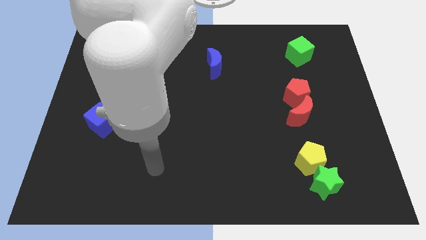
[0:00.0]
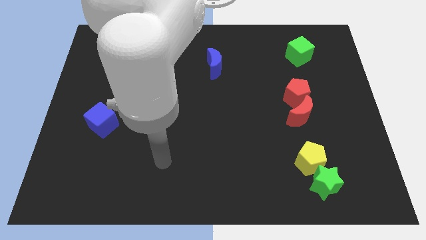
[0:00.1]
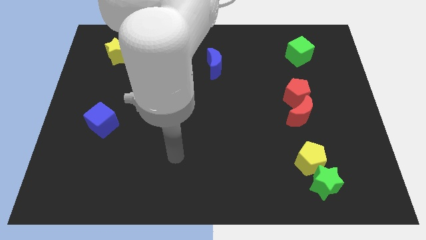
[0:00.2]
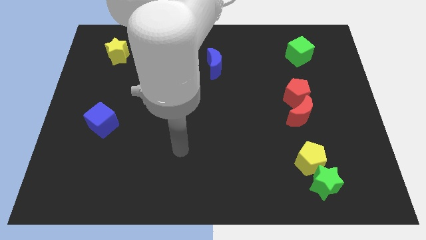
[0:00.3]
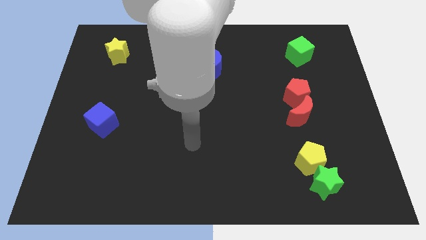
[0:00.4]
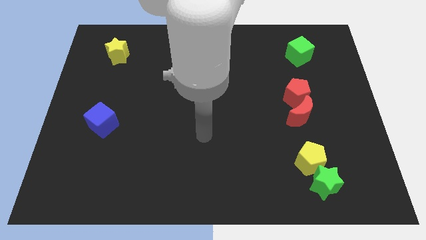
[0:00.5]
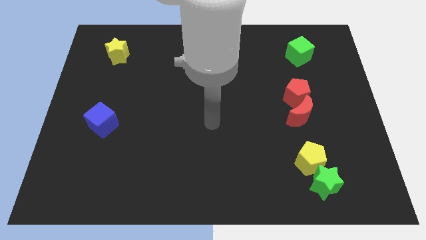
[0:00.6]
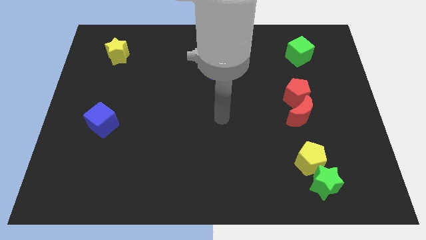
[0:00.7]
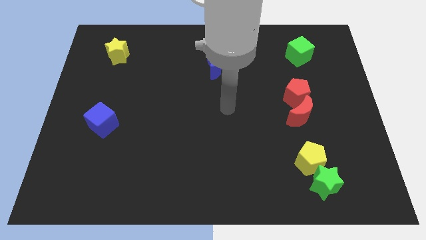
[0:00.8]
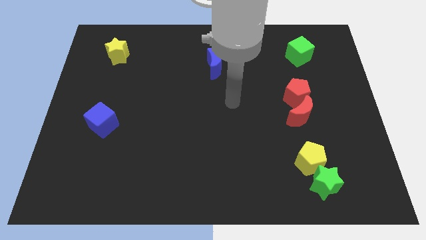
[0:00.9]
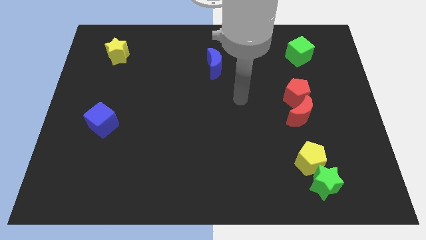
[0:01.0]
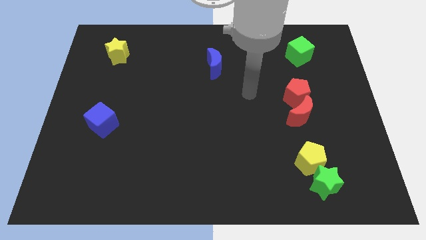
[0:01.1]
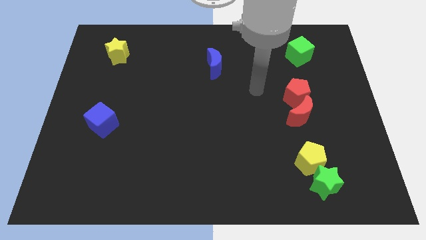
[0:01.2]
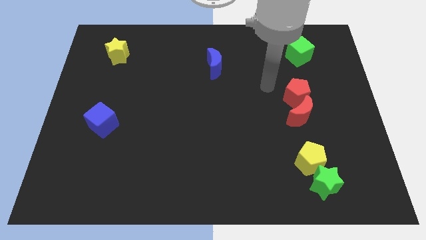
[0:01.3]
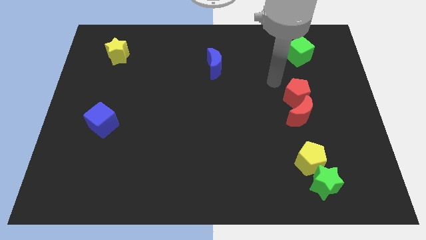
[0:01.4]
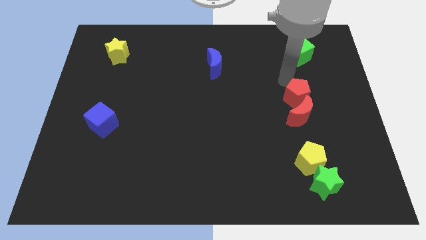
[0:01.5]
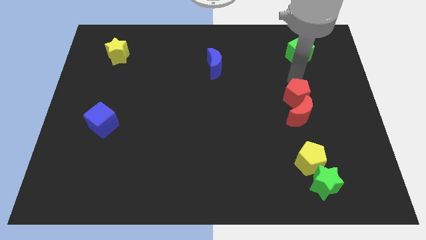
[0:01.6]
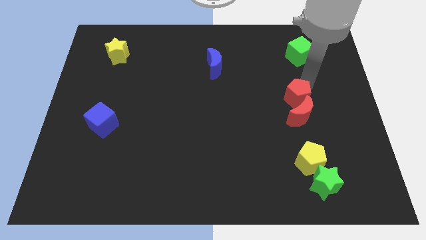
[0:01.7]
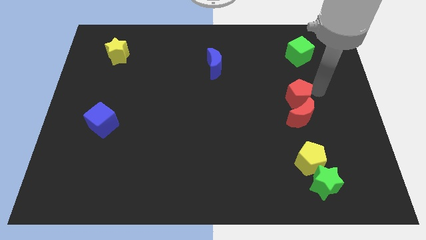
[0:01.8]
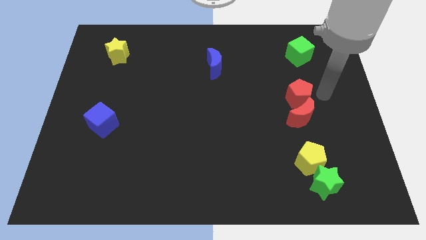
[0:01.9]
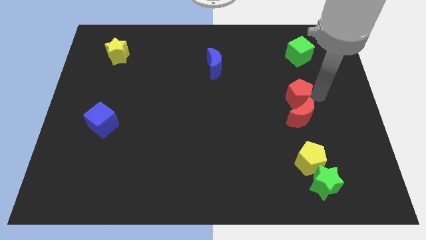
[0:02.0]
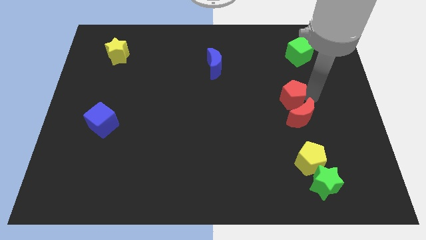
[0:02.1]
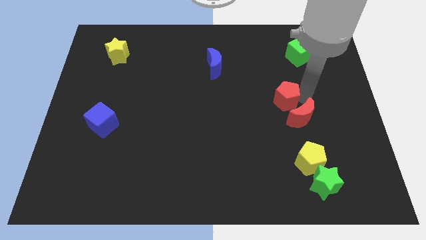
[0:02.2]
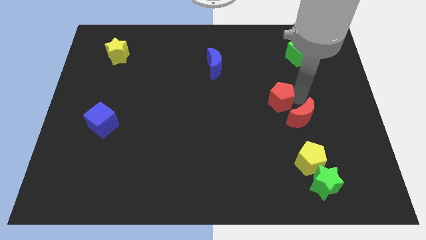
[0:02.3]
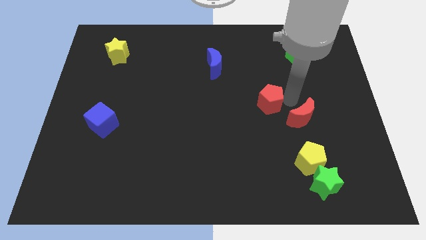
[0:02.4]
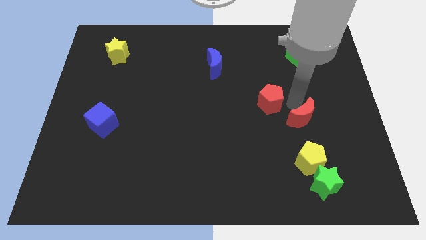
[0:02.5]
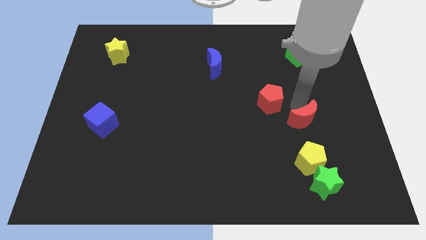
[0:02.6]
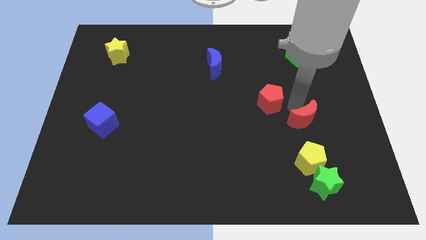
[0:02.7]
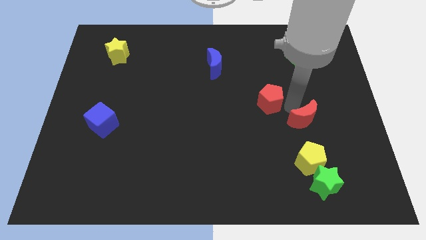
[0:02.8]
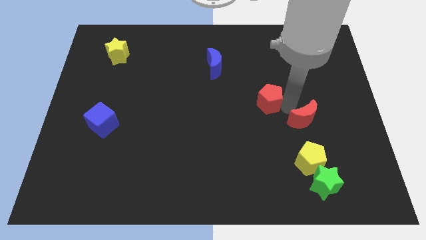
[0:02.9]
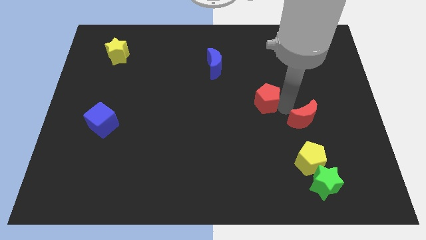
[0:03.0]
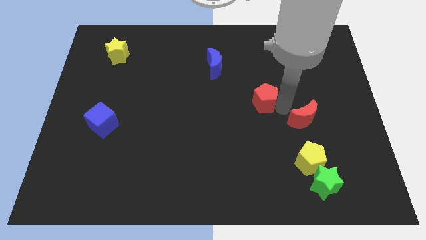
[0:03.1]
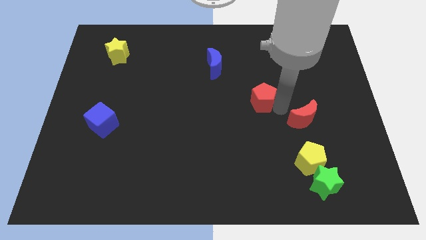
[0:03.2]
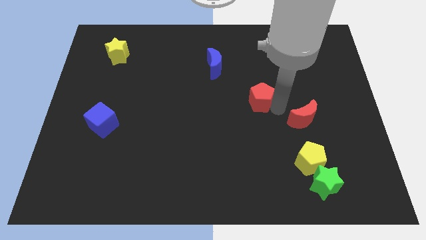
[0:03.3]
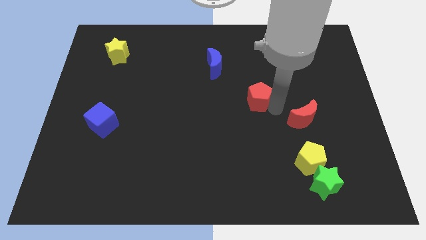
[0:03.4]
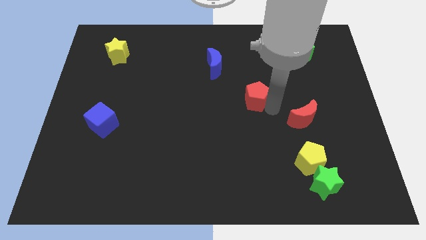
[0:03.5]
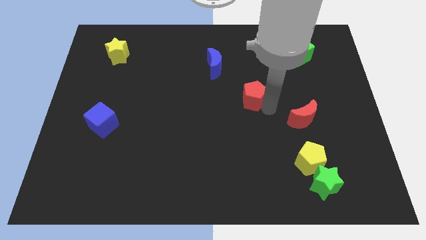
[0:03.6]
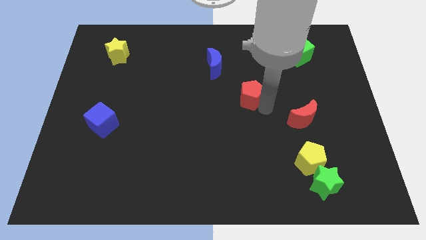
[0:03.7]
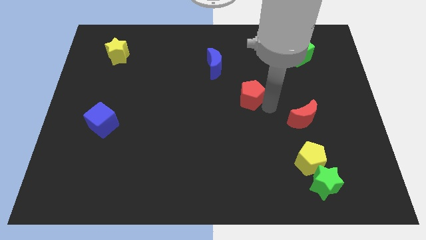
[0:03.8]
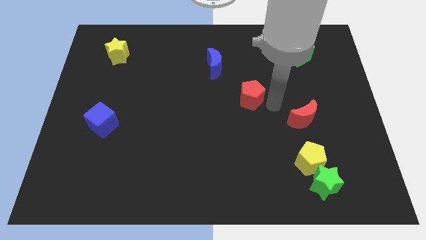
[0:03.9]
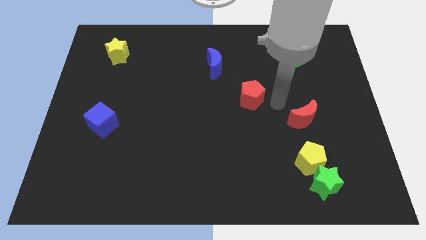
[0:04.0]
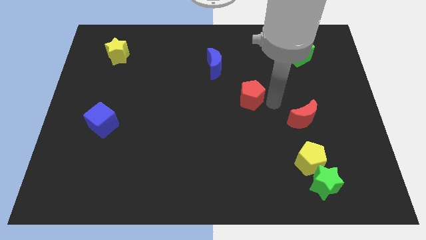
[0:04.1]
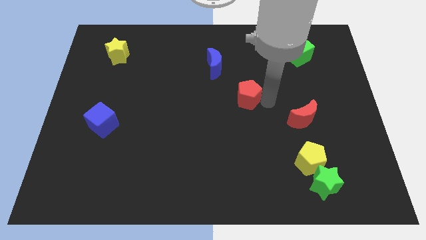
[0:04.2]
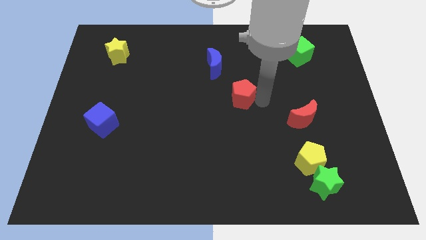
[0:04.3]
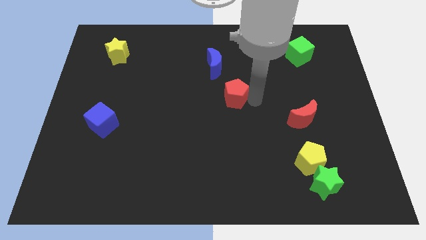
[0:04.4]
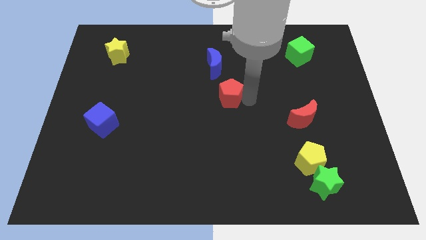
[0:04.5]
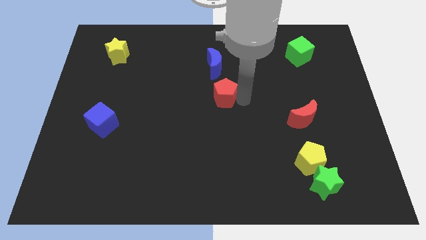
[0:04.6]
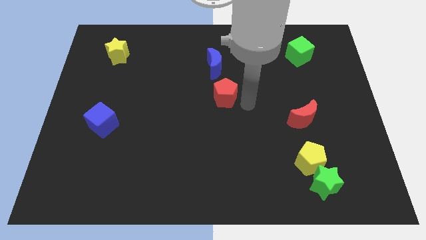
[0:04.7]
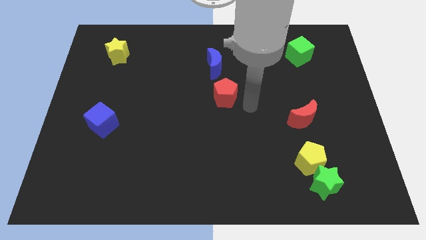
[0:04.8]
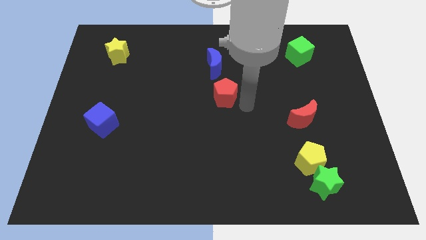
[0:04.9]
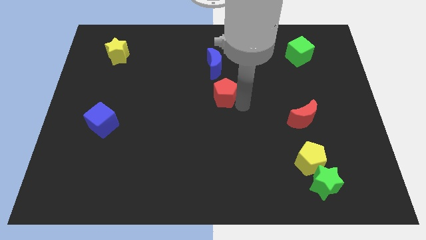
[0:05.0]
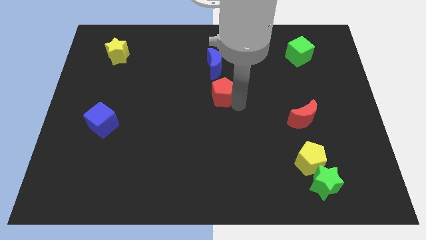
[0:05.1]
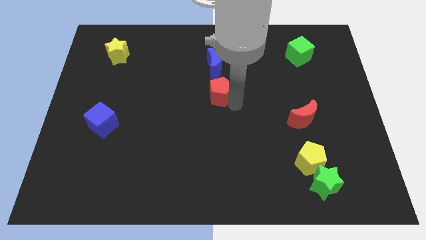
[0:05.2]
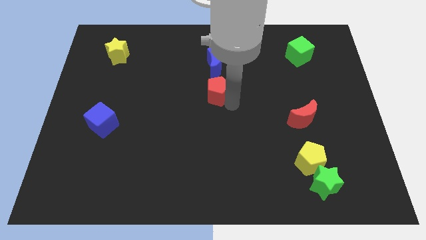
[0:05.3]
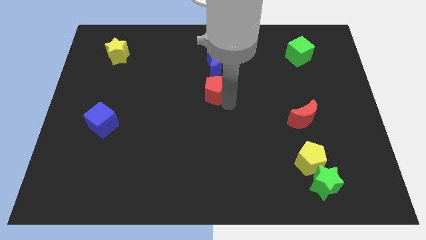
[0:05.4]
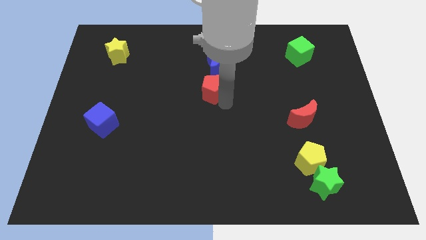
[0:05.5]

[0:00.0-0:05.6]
move the red pentagon to the left

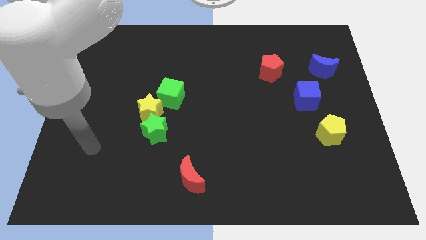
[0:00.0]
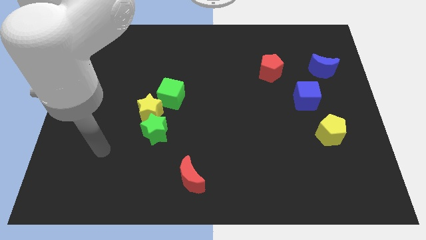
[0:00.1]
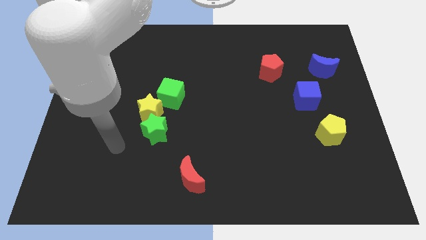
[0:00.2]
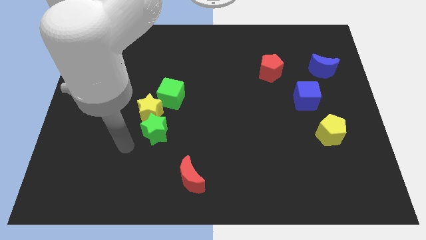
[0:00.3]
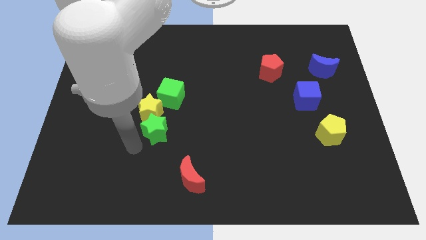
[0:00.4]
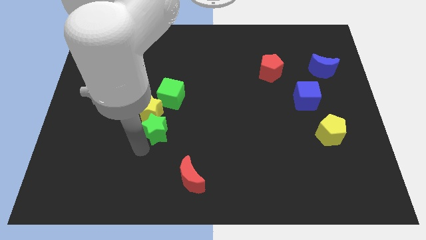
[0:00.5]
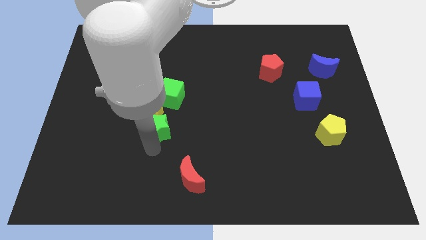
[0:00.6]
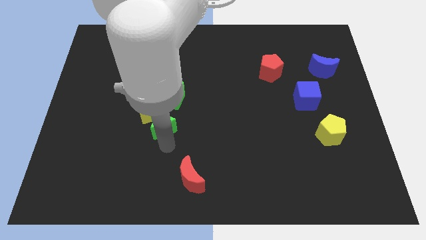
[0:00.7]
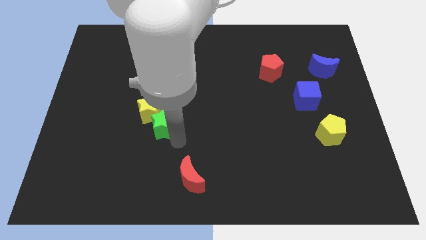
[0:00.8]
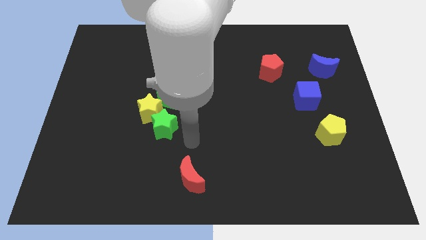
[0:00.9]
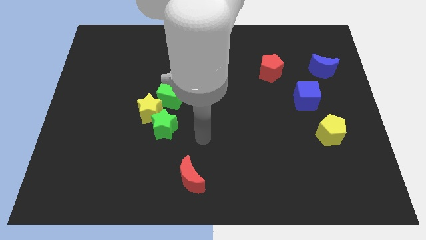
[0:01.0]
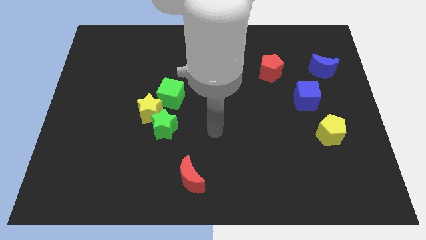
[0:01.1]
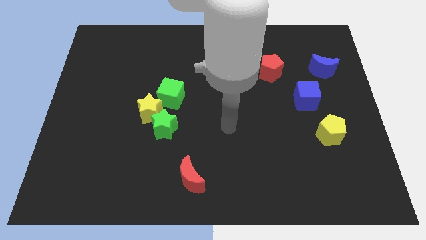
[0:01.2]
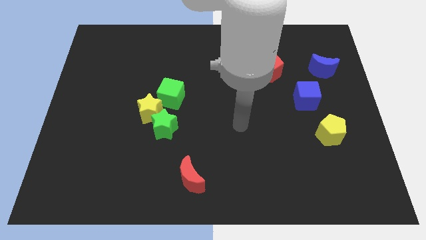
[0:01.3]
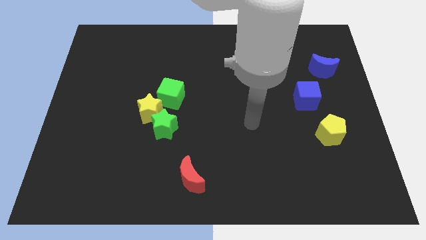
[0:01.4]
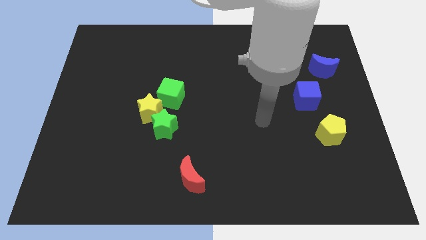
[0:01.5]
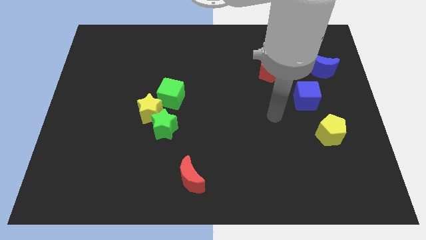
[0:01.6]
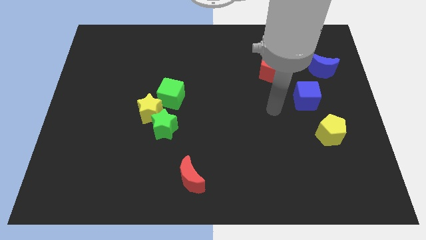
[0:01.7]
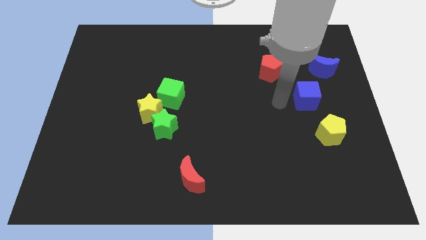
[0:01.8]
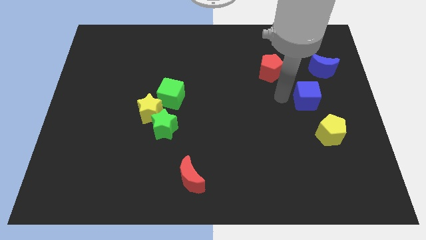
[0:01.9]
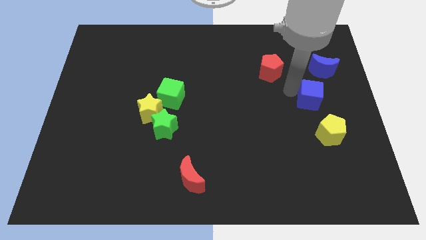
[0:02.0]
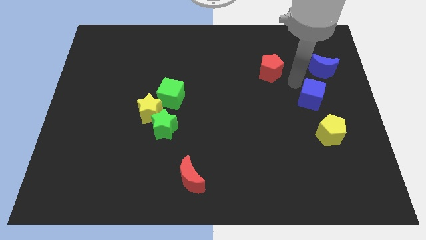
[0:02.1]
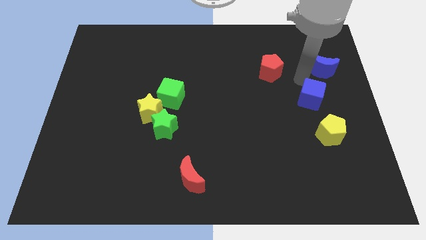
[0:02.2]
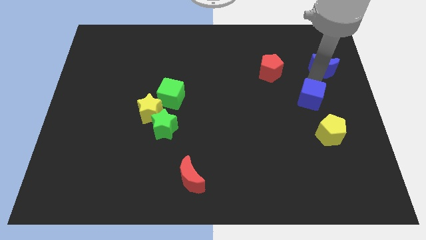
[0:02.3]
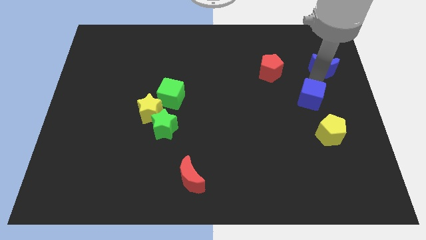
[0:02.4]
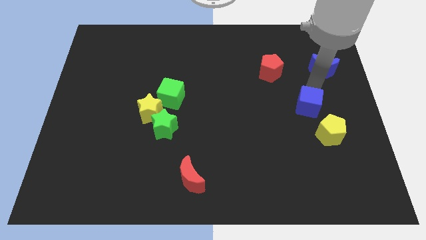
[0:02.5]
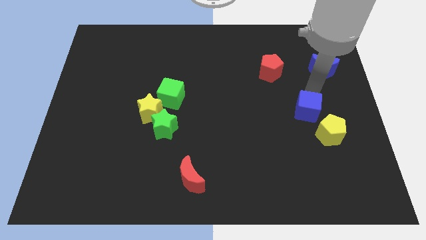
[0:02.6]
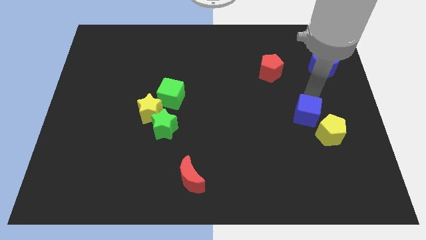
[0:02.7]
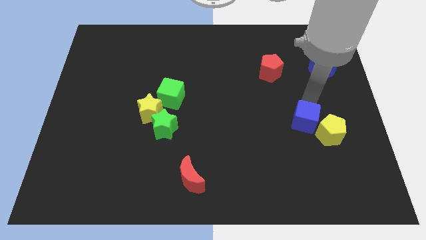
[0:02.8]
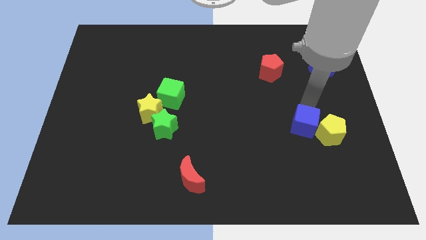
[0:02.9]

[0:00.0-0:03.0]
push the blue cube a bit downwards
